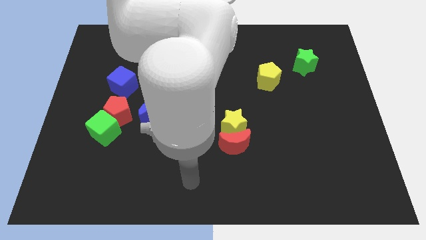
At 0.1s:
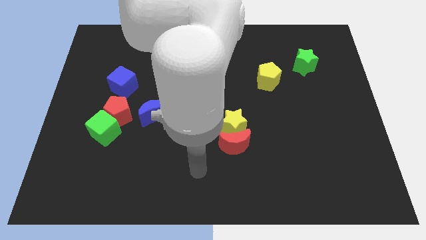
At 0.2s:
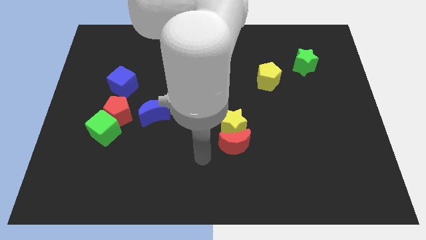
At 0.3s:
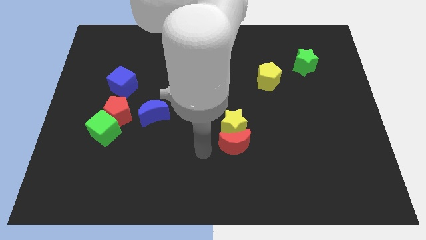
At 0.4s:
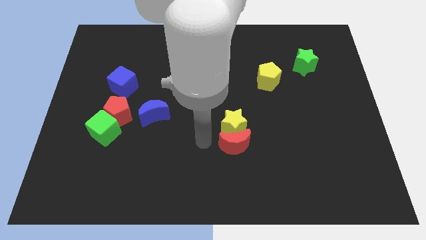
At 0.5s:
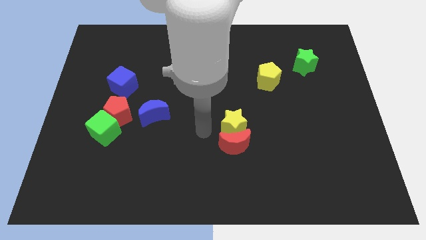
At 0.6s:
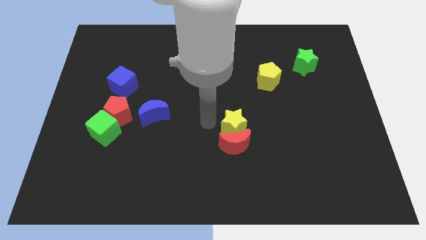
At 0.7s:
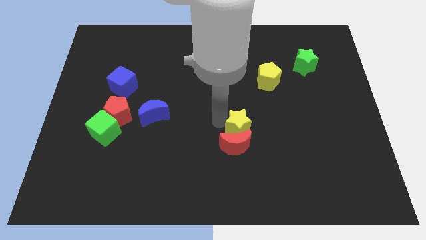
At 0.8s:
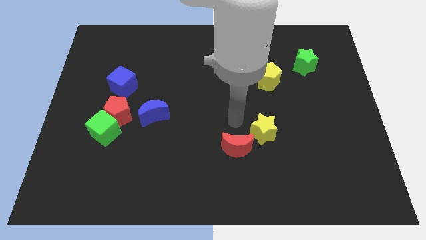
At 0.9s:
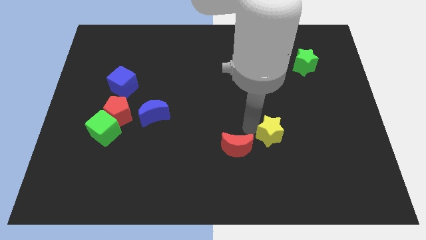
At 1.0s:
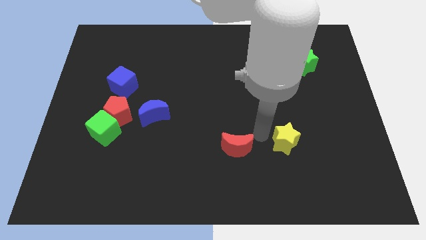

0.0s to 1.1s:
pull the red moon apart from the yellow star

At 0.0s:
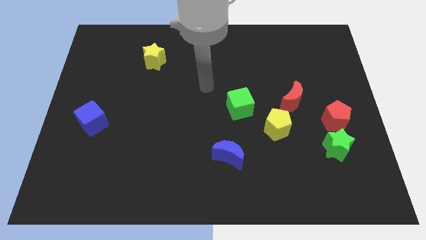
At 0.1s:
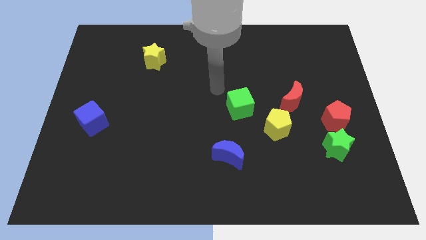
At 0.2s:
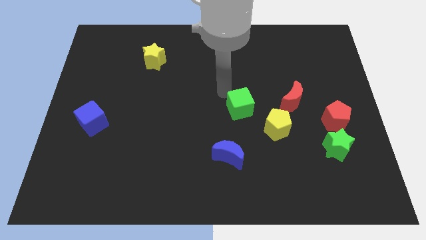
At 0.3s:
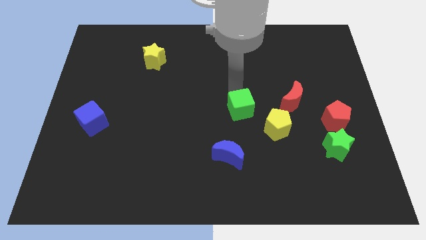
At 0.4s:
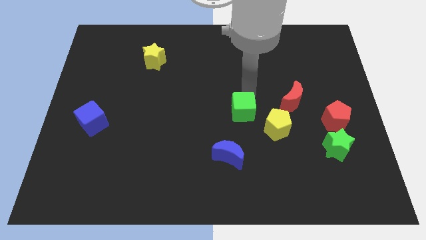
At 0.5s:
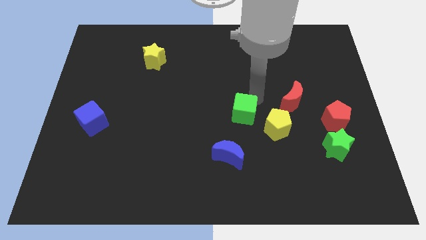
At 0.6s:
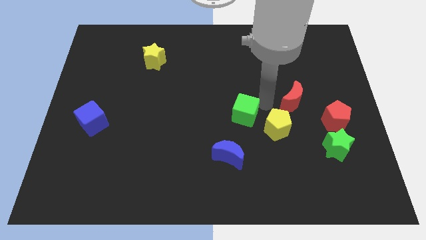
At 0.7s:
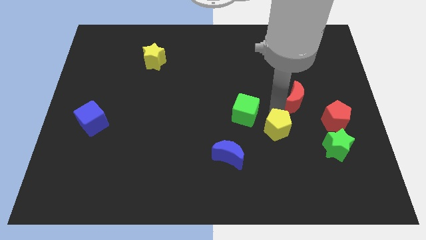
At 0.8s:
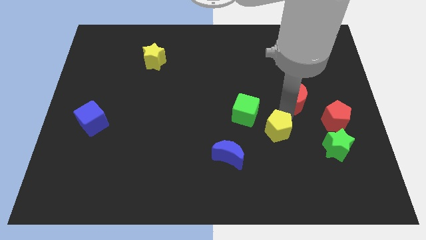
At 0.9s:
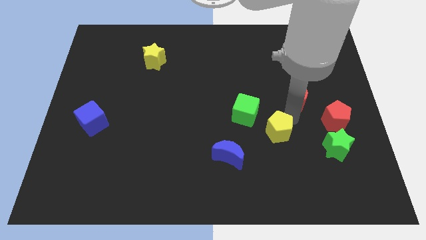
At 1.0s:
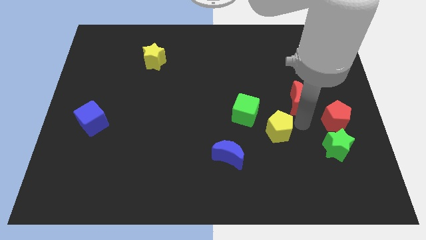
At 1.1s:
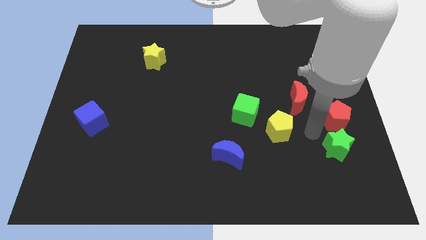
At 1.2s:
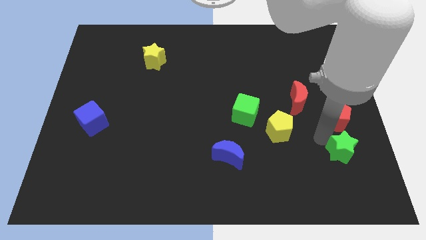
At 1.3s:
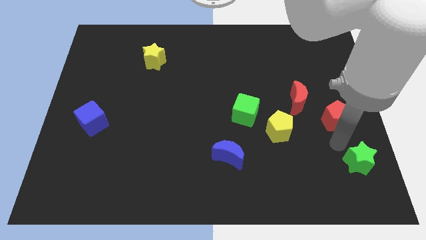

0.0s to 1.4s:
move the red pentagon away from the green star

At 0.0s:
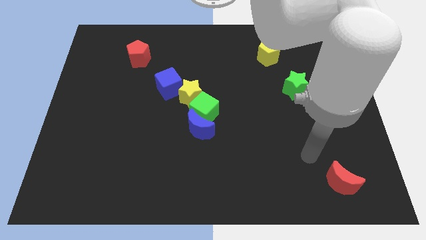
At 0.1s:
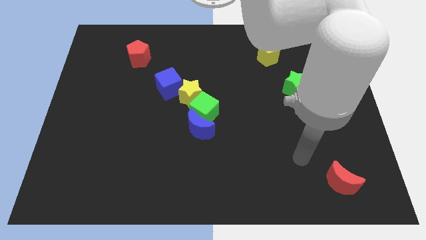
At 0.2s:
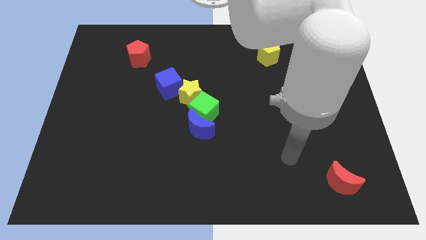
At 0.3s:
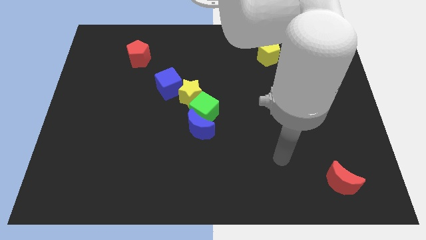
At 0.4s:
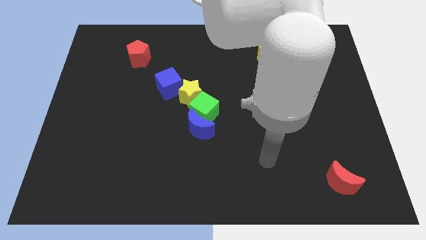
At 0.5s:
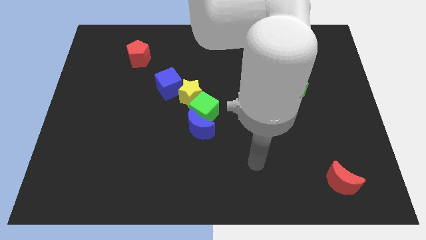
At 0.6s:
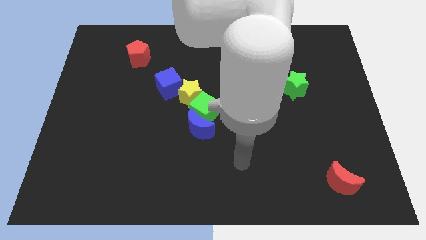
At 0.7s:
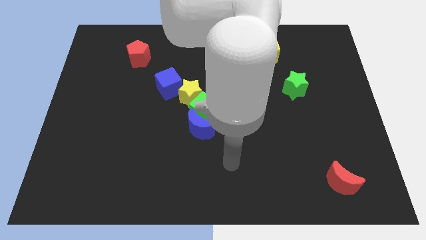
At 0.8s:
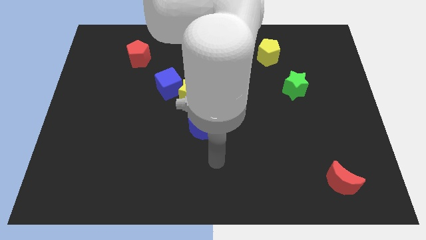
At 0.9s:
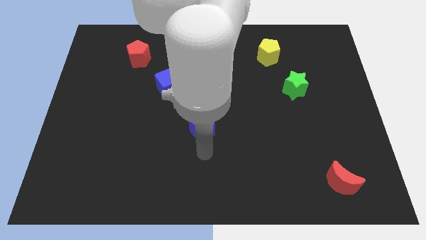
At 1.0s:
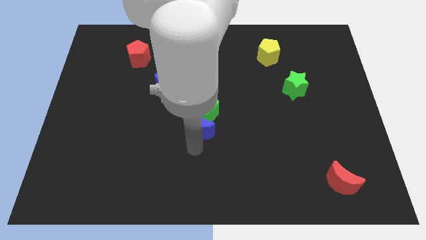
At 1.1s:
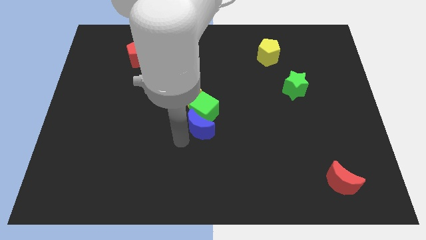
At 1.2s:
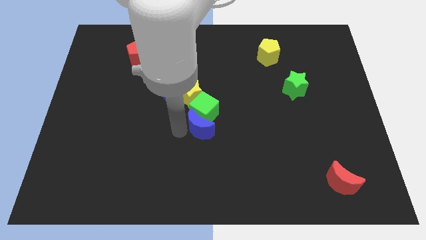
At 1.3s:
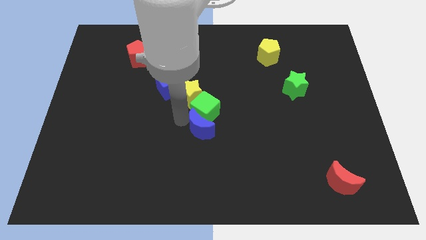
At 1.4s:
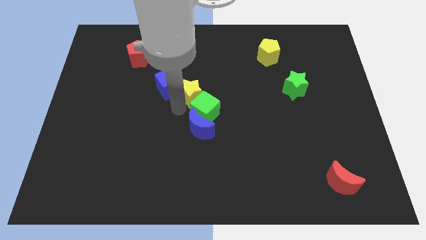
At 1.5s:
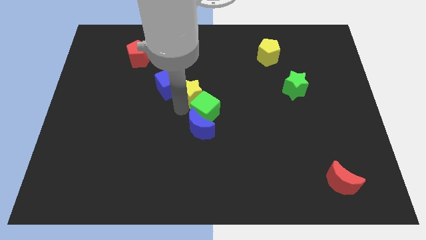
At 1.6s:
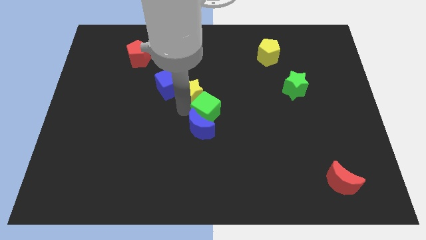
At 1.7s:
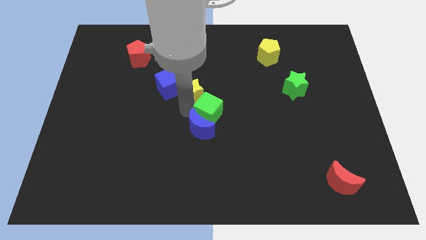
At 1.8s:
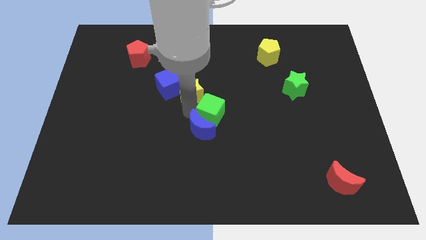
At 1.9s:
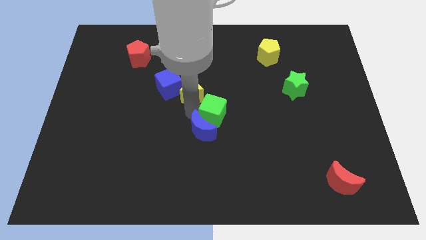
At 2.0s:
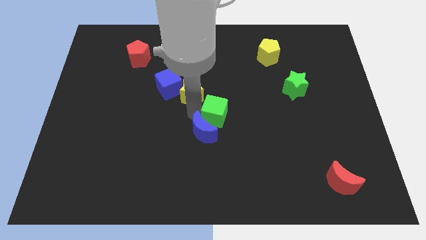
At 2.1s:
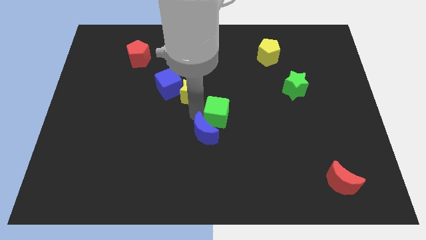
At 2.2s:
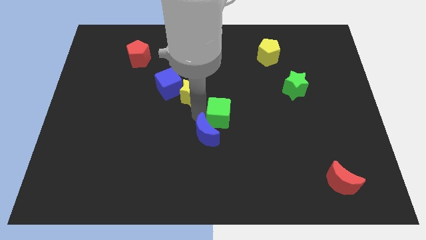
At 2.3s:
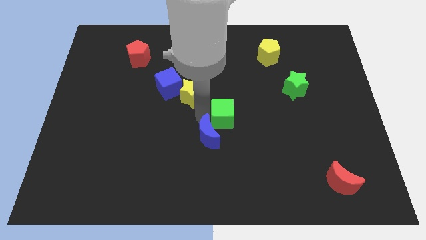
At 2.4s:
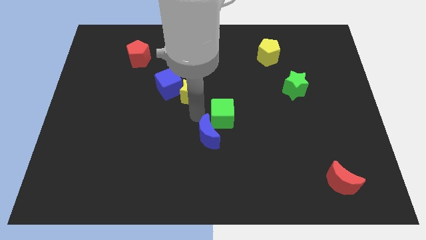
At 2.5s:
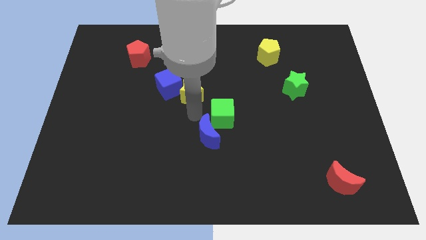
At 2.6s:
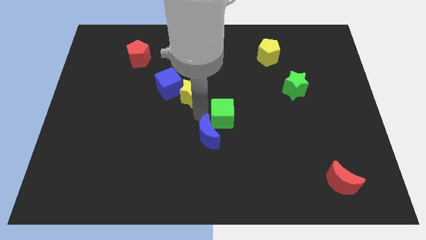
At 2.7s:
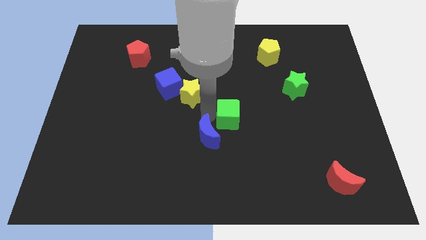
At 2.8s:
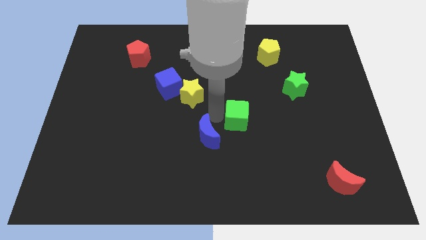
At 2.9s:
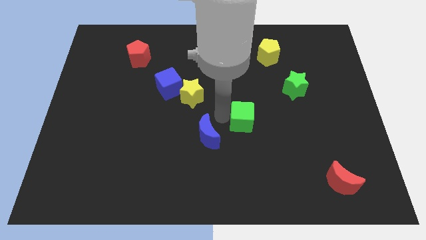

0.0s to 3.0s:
pull the green cube apart from the blue moon and yellow star

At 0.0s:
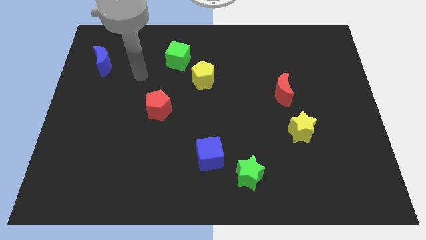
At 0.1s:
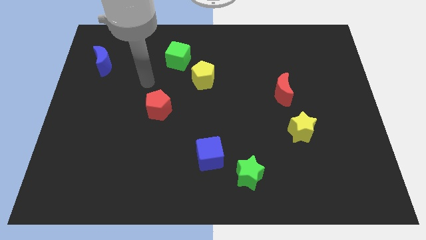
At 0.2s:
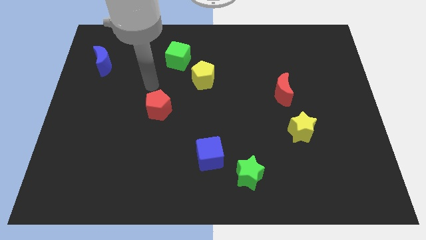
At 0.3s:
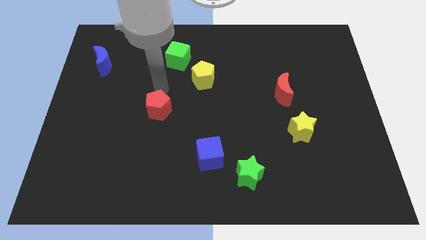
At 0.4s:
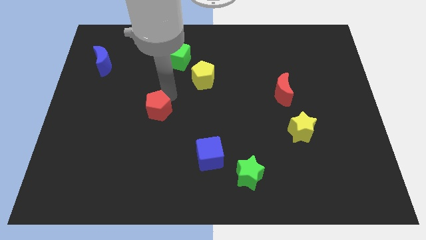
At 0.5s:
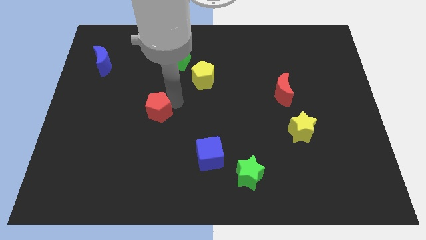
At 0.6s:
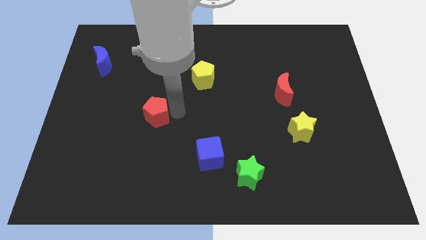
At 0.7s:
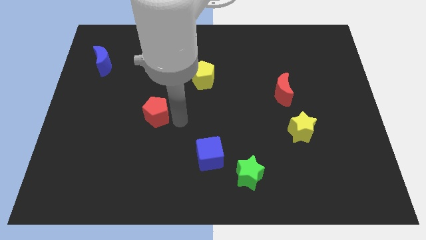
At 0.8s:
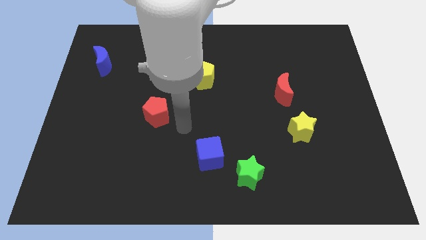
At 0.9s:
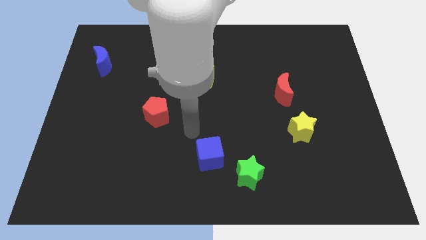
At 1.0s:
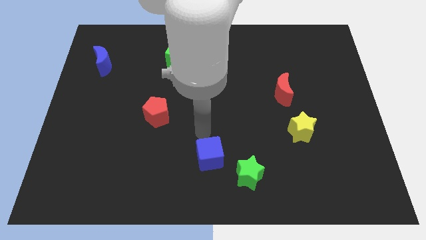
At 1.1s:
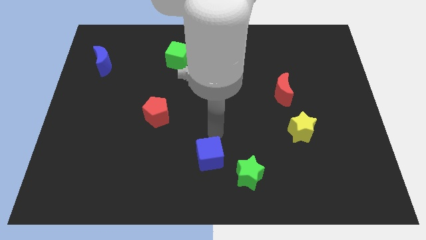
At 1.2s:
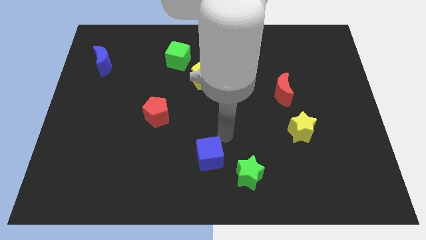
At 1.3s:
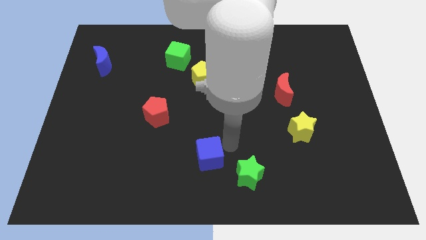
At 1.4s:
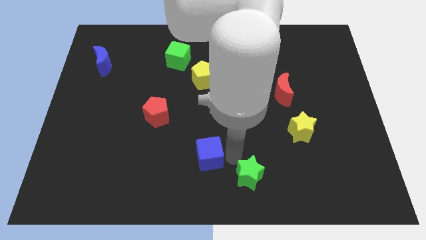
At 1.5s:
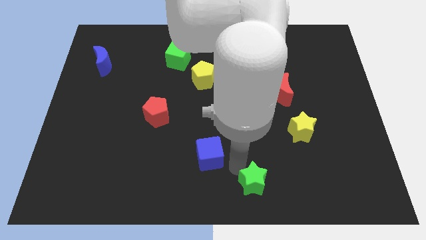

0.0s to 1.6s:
pull the blue cube apart from the green star

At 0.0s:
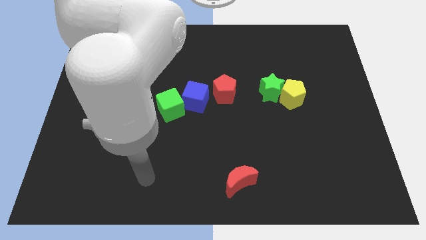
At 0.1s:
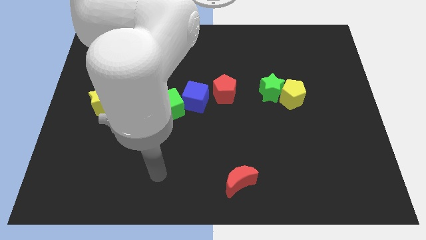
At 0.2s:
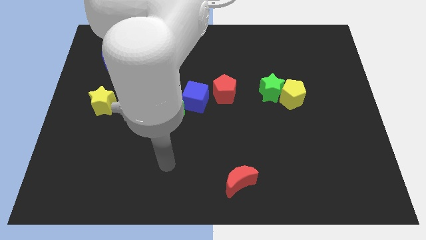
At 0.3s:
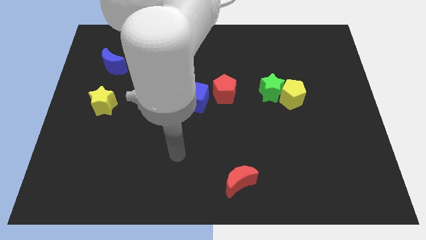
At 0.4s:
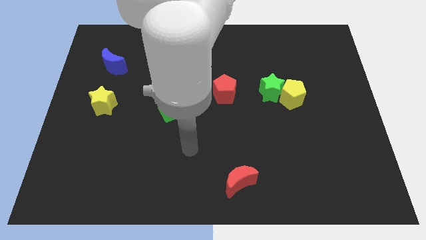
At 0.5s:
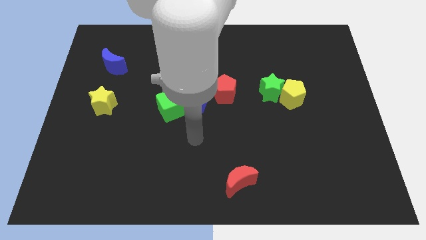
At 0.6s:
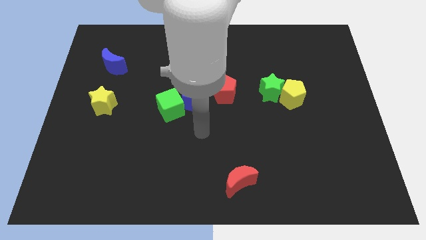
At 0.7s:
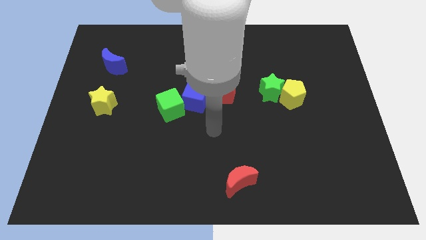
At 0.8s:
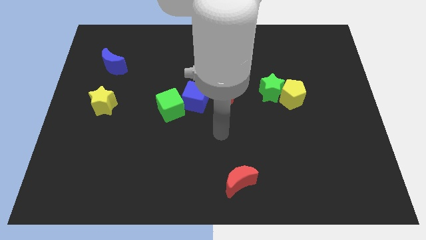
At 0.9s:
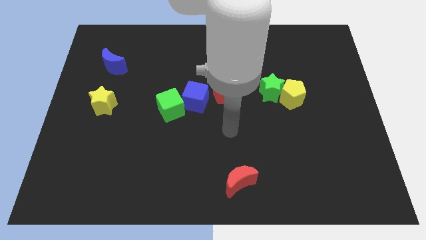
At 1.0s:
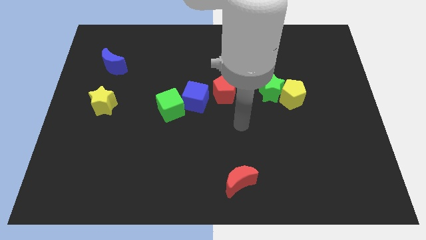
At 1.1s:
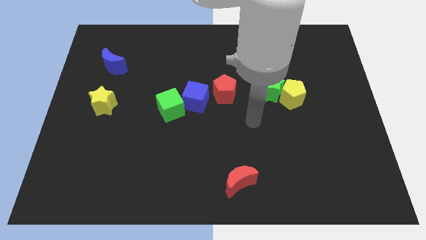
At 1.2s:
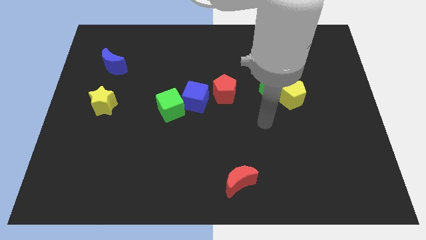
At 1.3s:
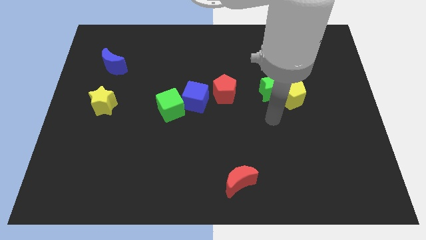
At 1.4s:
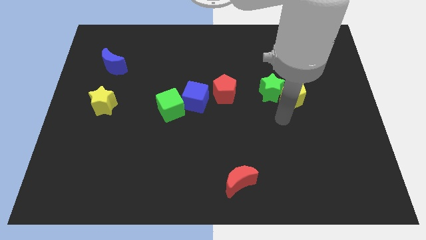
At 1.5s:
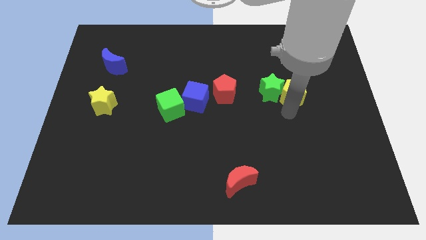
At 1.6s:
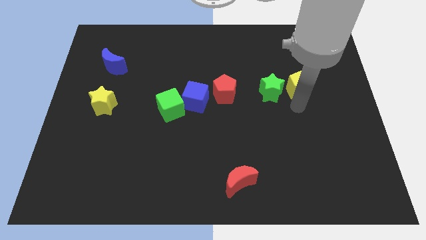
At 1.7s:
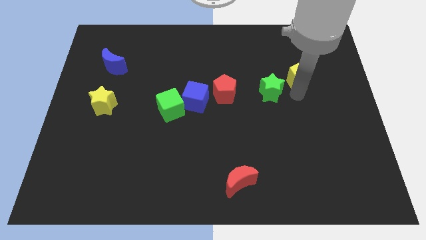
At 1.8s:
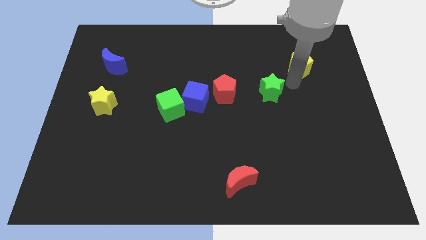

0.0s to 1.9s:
separate the green star from the yellow pentagon

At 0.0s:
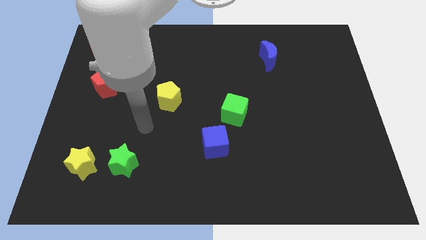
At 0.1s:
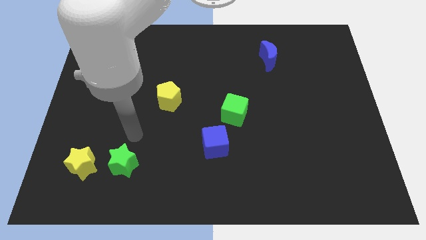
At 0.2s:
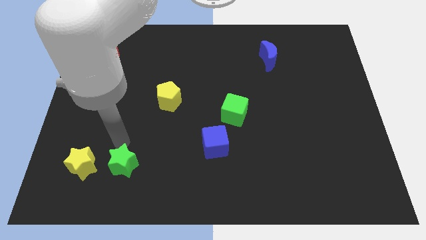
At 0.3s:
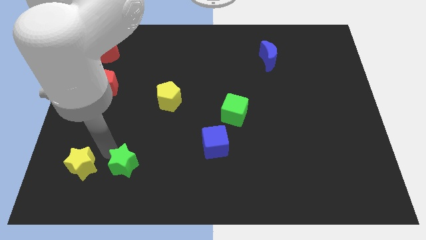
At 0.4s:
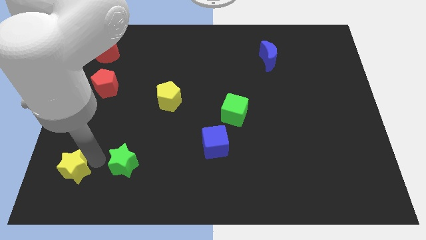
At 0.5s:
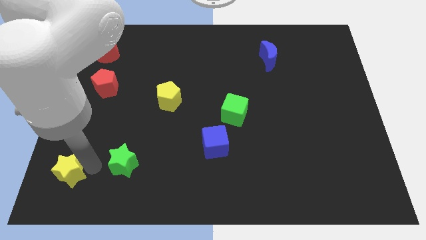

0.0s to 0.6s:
pull the green star apart from the yellow star
